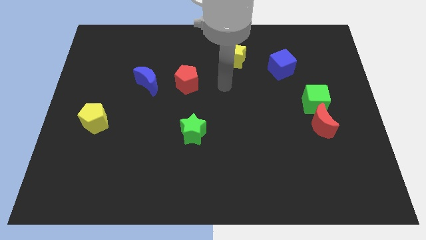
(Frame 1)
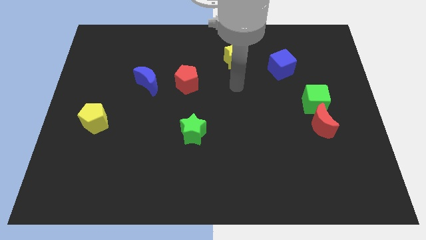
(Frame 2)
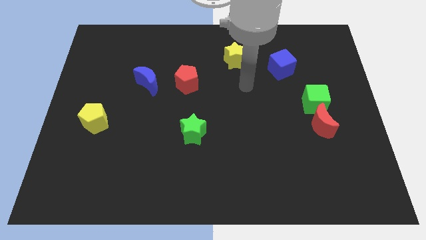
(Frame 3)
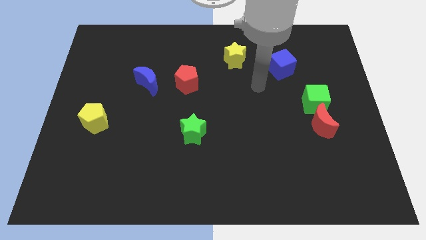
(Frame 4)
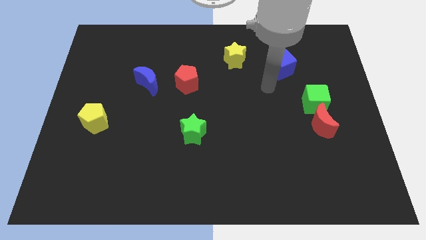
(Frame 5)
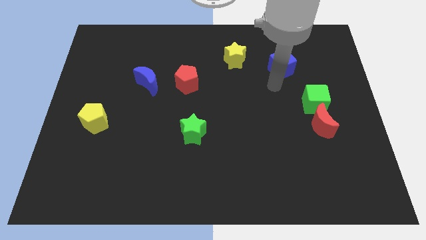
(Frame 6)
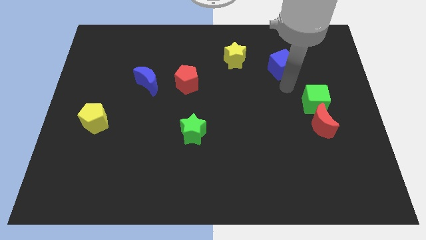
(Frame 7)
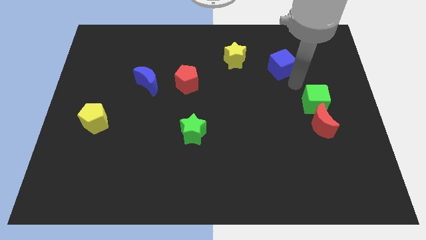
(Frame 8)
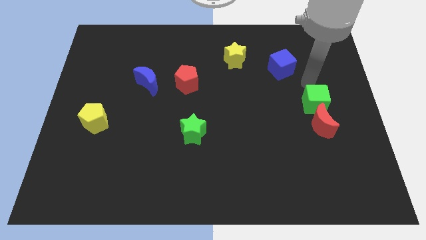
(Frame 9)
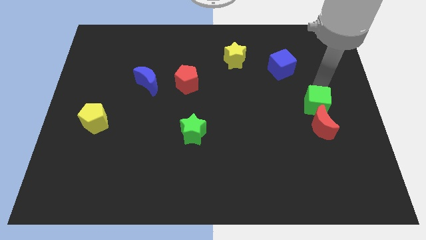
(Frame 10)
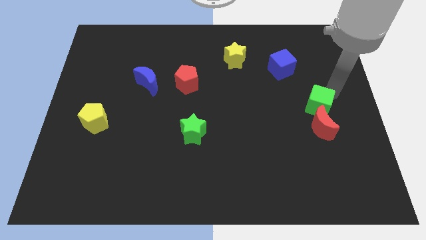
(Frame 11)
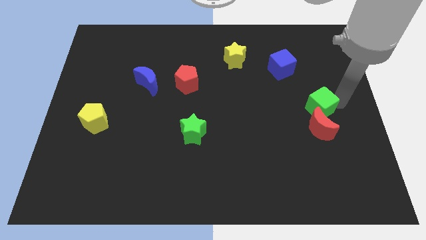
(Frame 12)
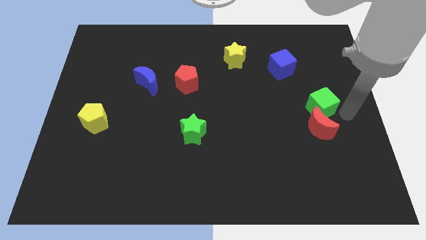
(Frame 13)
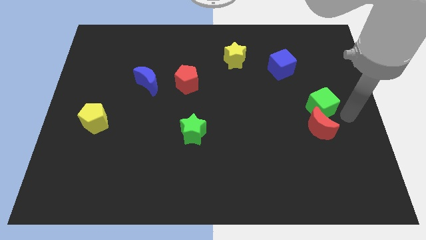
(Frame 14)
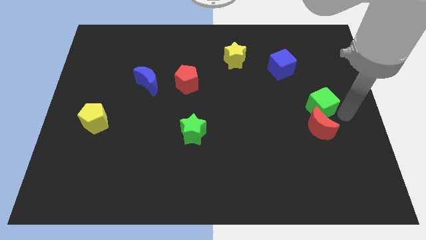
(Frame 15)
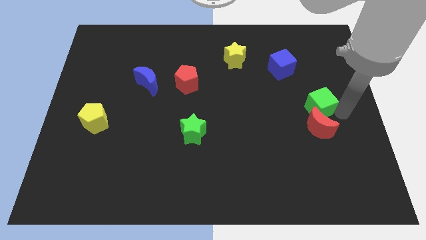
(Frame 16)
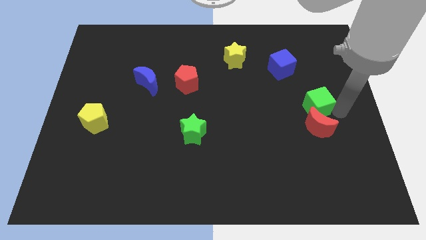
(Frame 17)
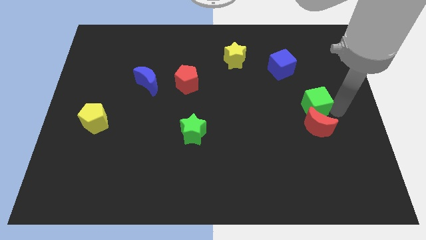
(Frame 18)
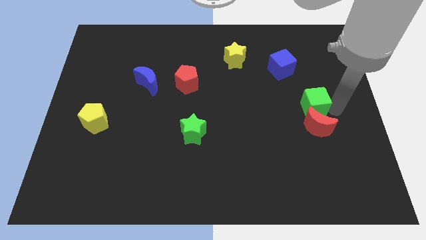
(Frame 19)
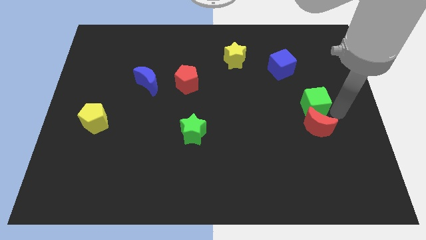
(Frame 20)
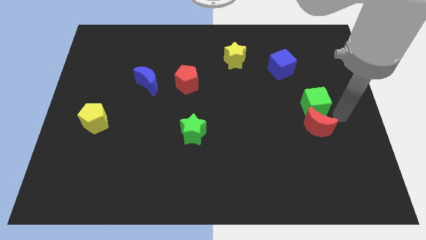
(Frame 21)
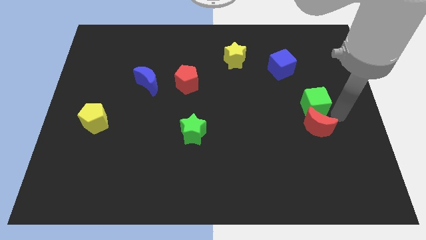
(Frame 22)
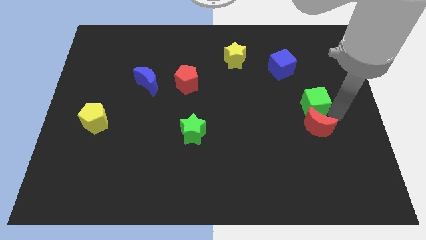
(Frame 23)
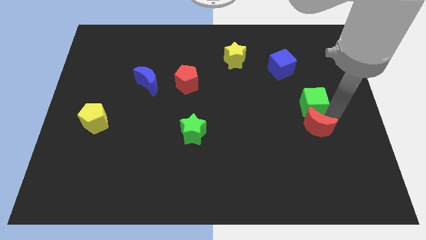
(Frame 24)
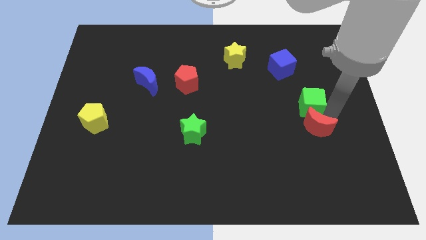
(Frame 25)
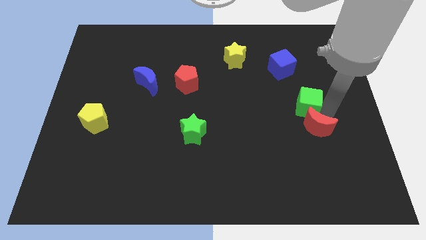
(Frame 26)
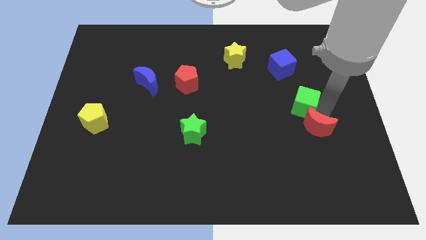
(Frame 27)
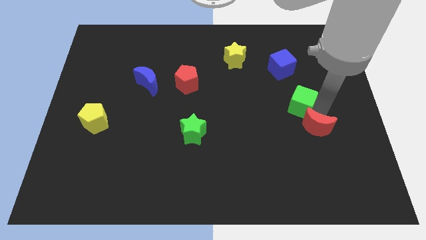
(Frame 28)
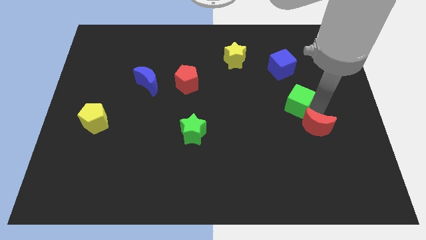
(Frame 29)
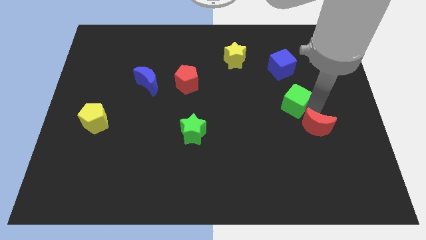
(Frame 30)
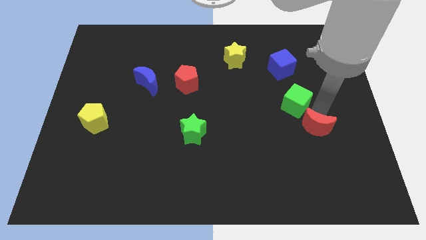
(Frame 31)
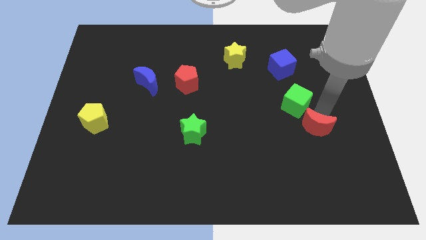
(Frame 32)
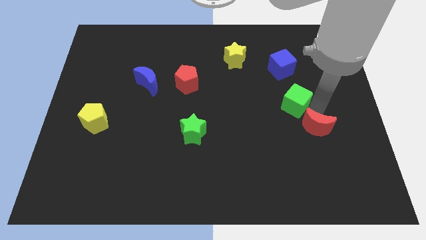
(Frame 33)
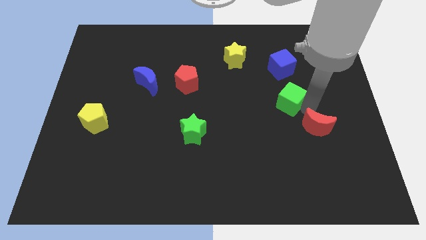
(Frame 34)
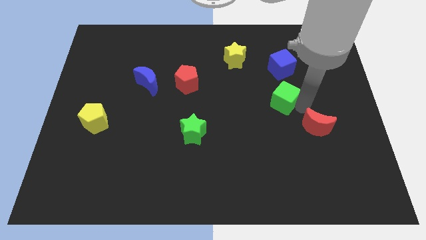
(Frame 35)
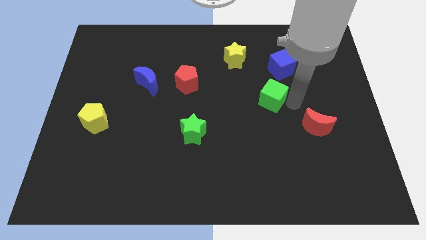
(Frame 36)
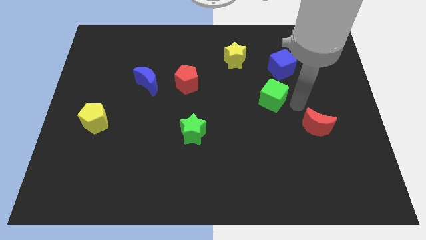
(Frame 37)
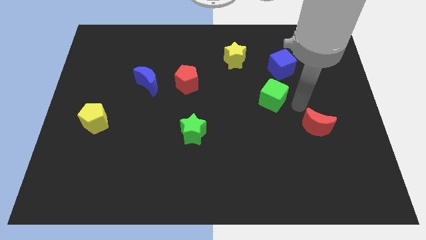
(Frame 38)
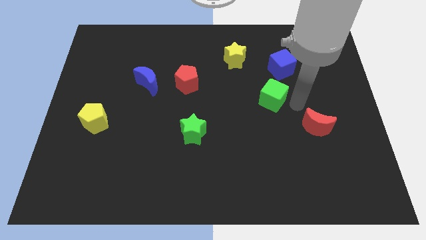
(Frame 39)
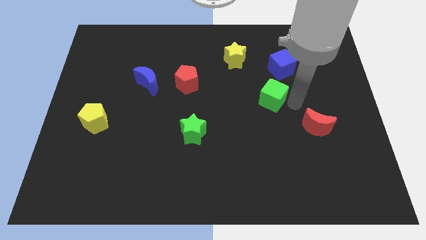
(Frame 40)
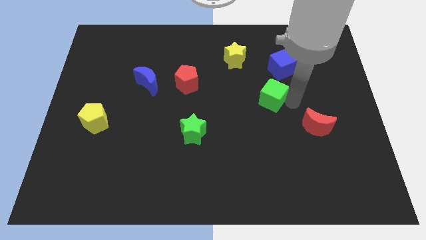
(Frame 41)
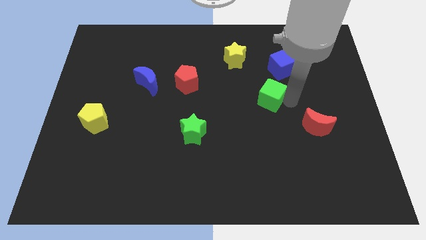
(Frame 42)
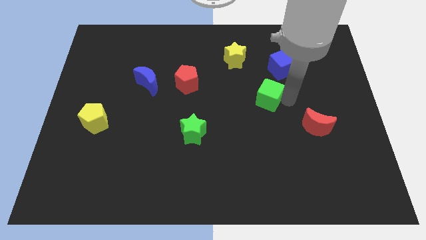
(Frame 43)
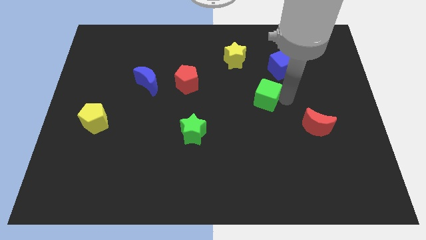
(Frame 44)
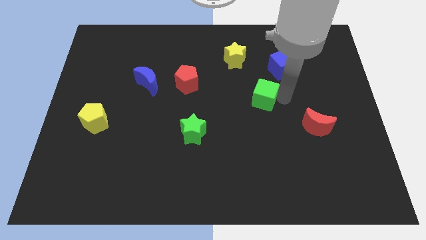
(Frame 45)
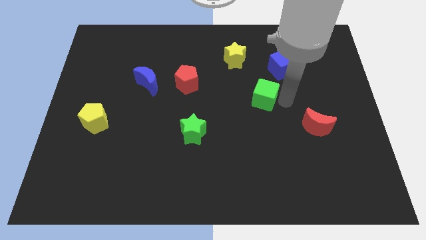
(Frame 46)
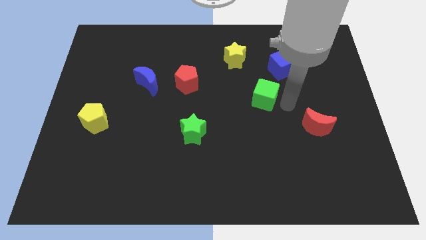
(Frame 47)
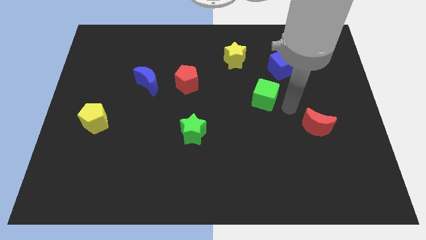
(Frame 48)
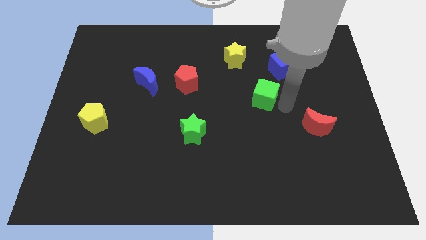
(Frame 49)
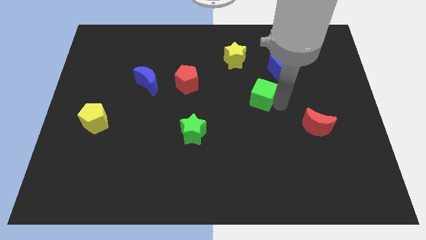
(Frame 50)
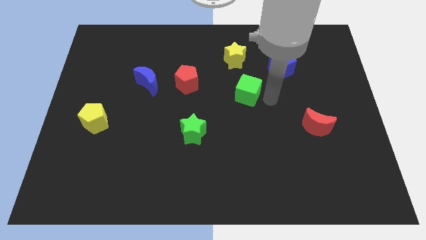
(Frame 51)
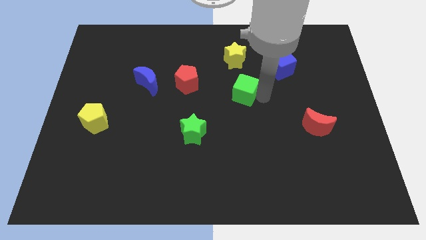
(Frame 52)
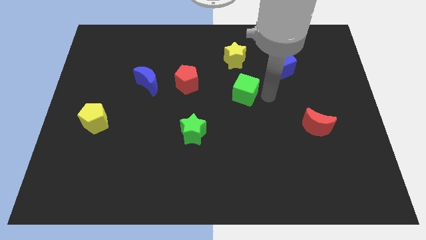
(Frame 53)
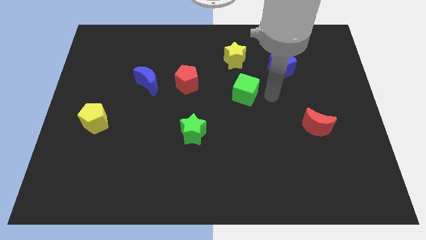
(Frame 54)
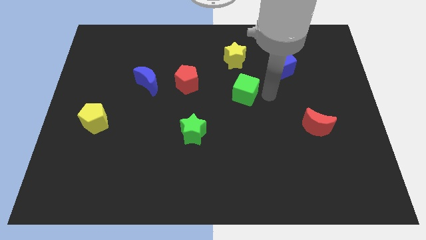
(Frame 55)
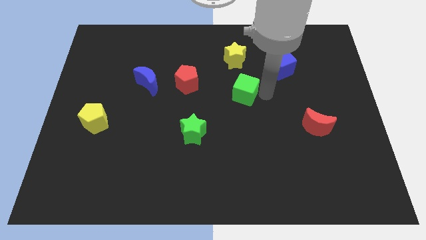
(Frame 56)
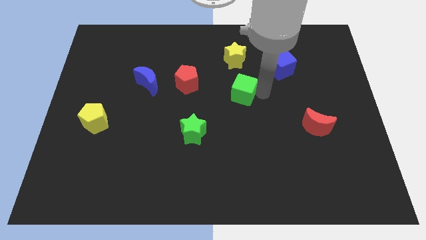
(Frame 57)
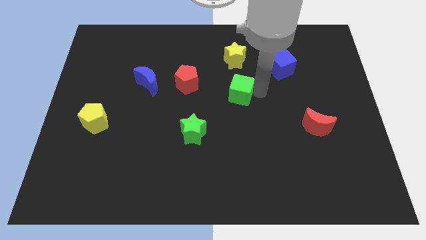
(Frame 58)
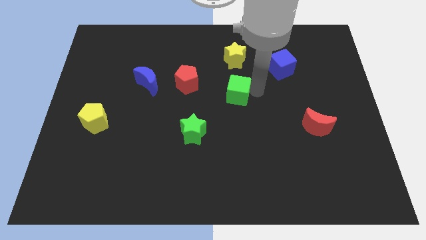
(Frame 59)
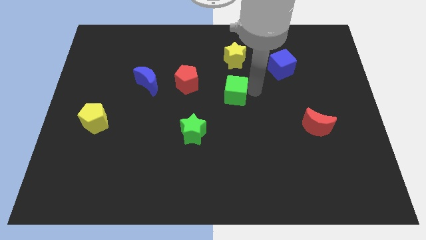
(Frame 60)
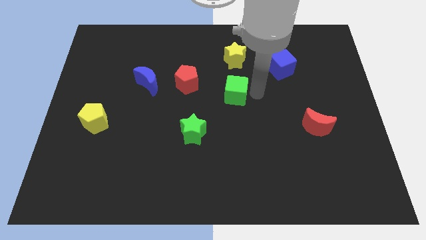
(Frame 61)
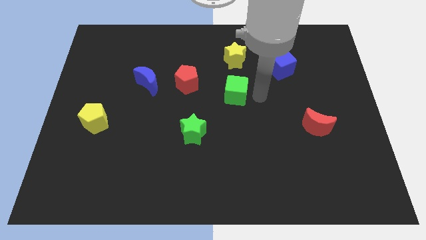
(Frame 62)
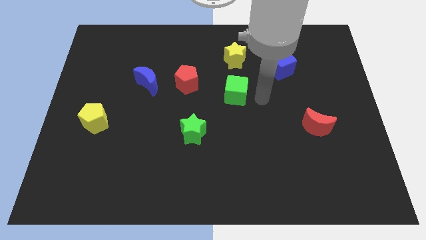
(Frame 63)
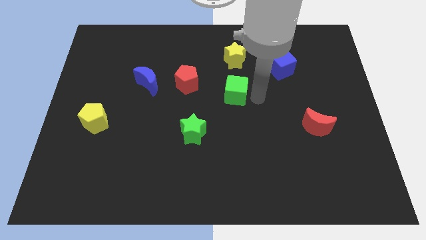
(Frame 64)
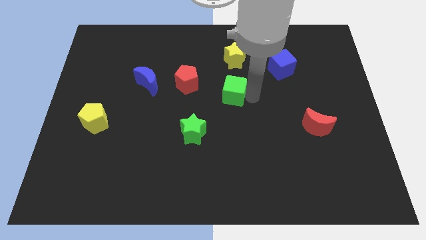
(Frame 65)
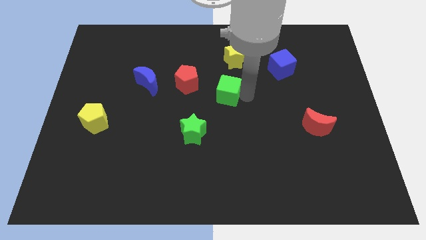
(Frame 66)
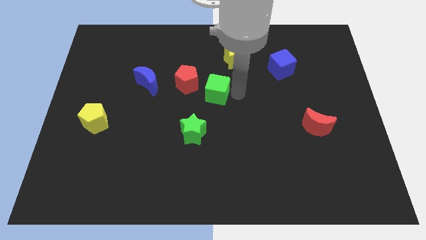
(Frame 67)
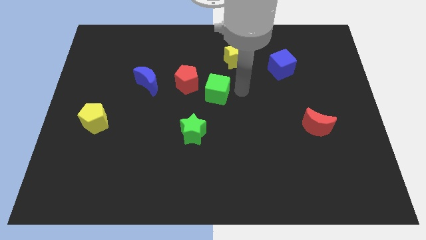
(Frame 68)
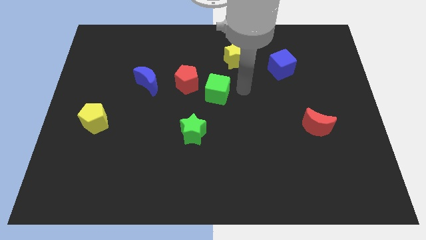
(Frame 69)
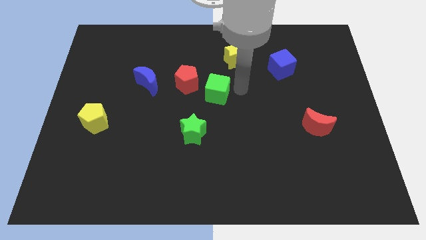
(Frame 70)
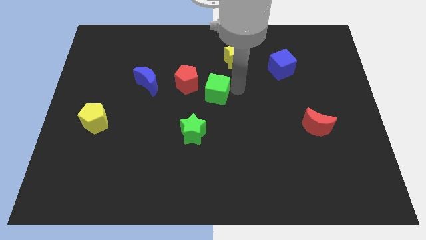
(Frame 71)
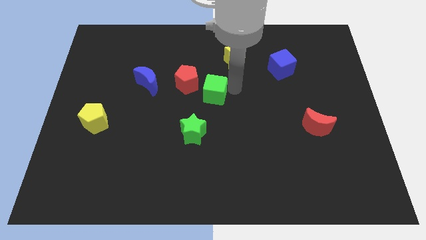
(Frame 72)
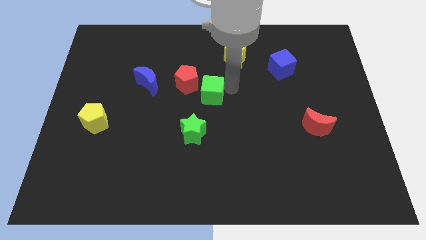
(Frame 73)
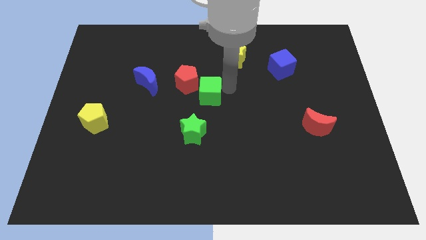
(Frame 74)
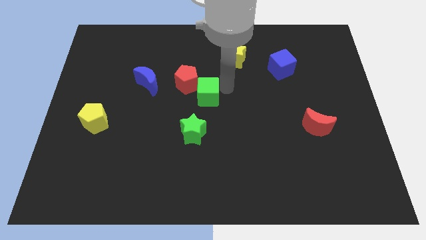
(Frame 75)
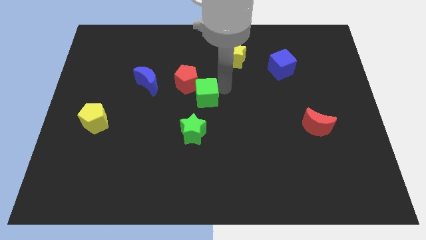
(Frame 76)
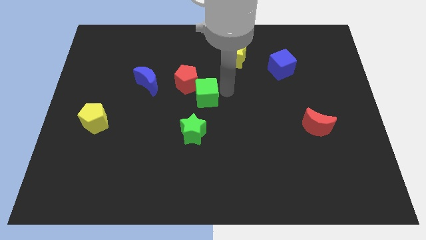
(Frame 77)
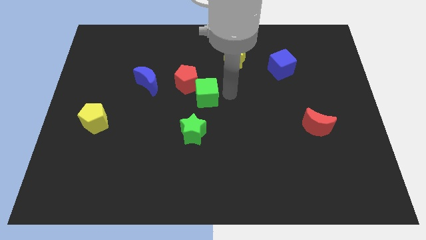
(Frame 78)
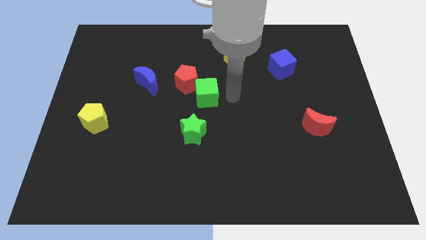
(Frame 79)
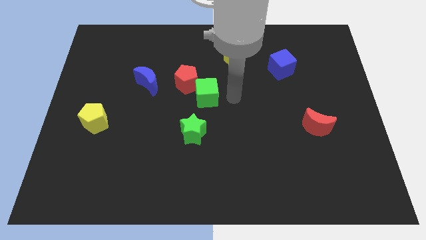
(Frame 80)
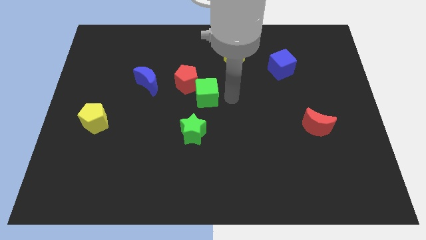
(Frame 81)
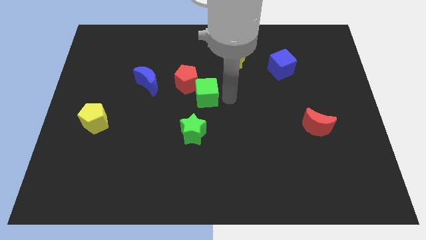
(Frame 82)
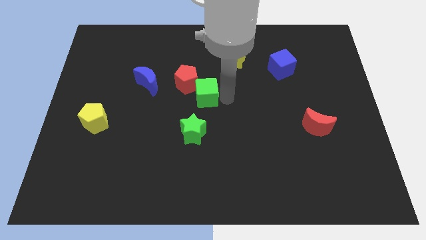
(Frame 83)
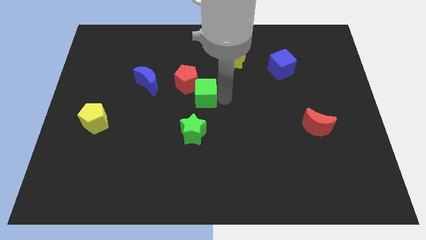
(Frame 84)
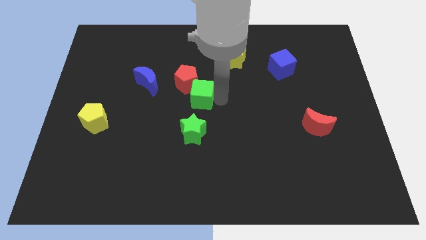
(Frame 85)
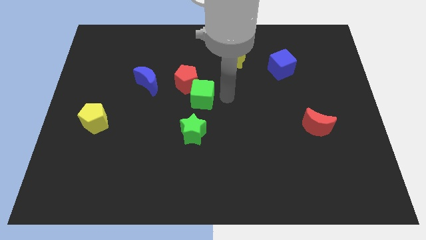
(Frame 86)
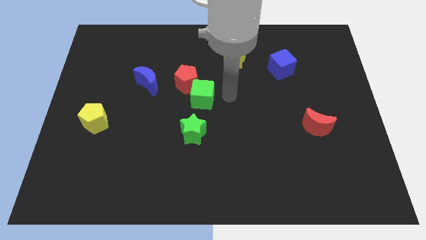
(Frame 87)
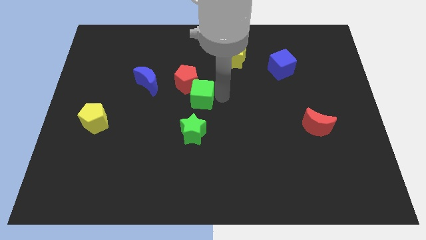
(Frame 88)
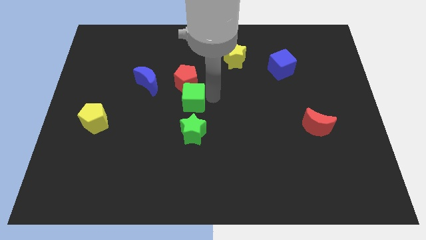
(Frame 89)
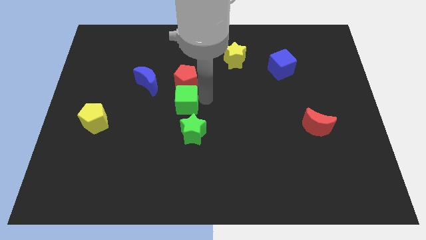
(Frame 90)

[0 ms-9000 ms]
push the green cube diagonally down and to the left of the red pentagon
